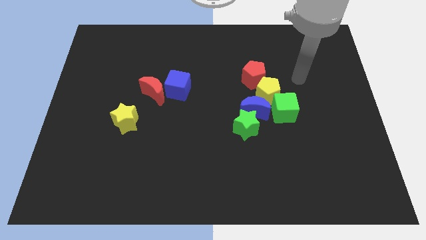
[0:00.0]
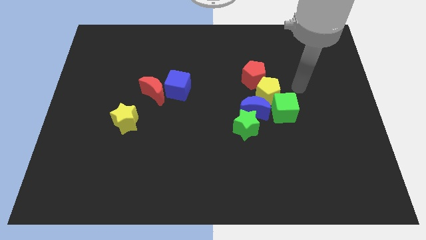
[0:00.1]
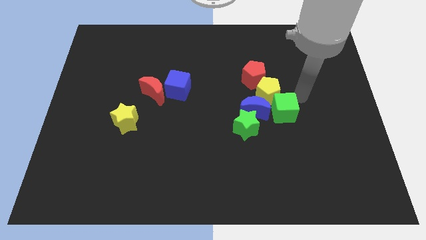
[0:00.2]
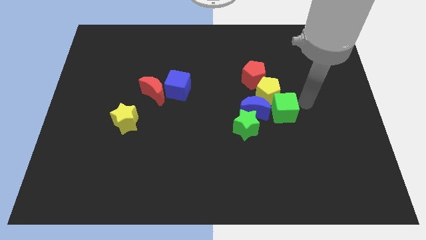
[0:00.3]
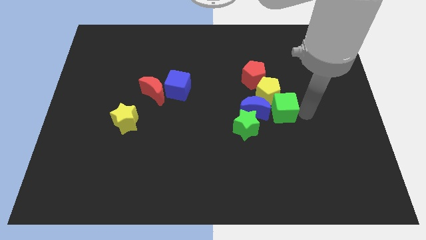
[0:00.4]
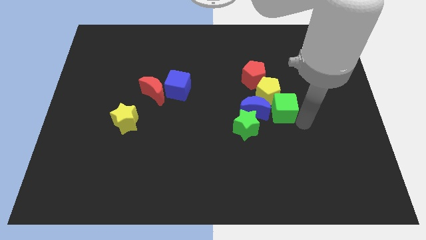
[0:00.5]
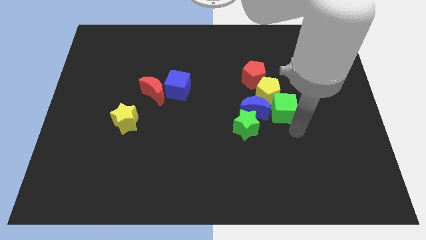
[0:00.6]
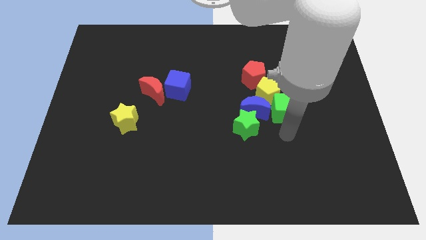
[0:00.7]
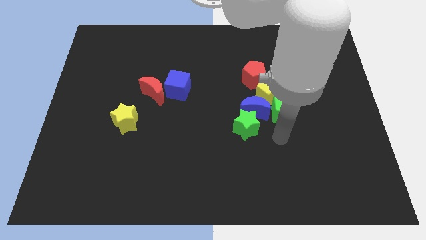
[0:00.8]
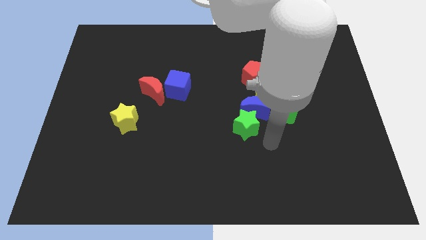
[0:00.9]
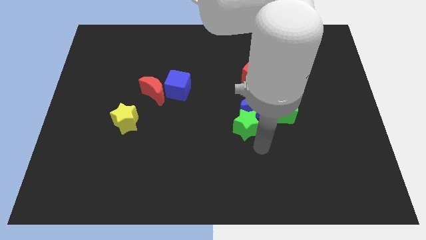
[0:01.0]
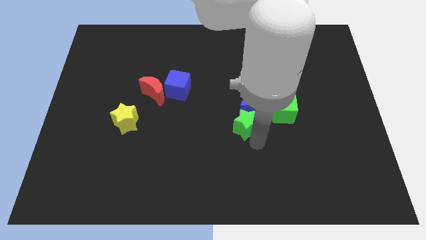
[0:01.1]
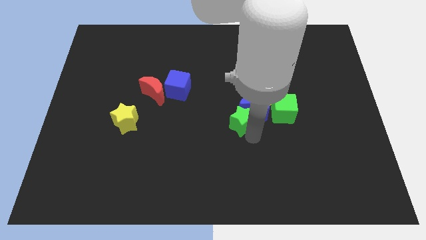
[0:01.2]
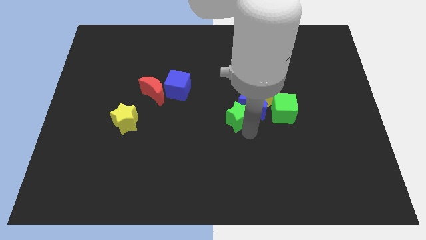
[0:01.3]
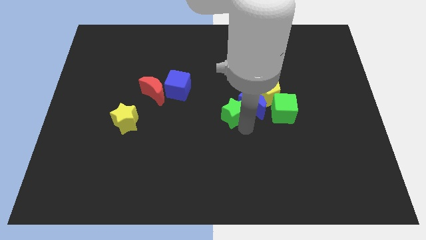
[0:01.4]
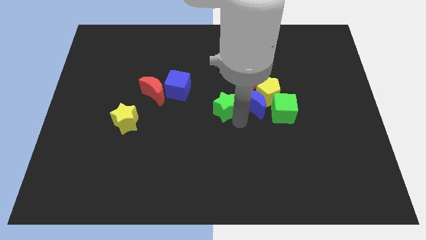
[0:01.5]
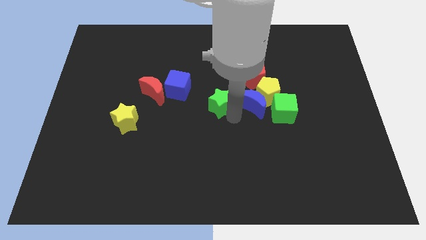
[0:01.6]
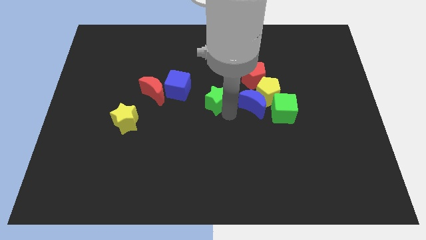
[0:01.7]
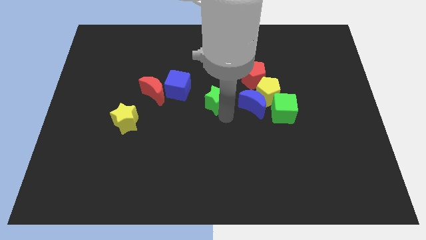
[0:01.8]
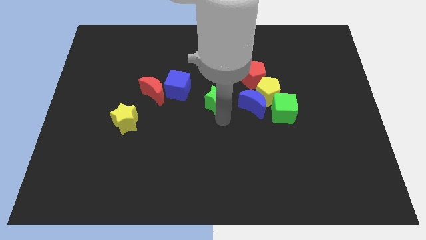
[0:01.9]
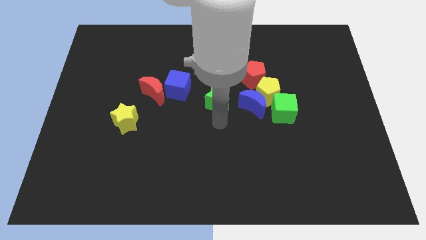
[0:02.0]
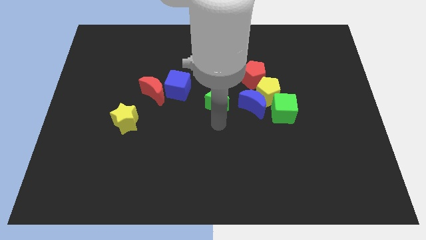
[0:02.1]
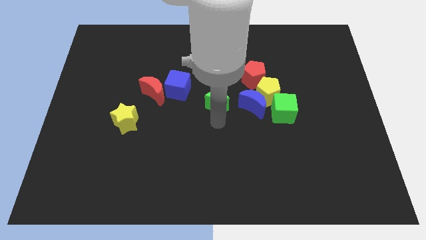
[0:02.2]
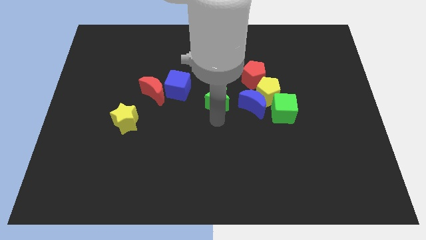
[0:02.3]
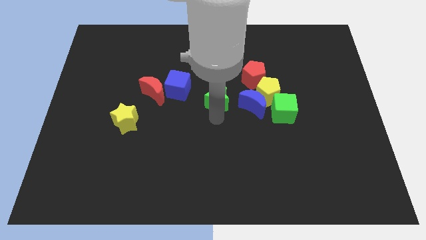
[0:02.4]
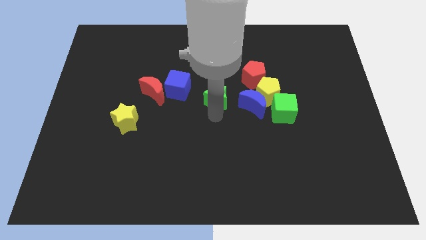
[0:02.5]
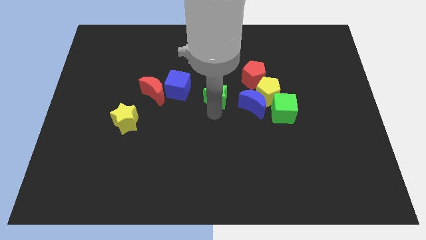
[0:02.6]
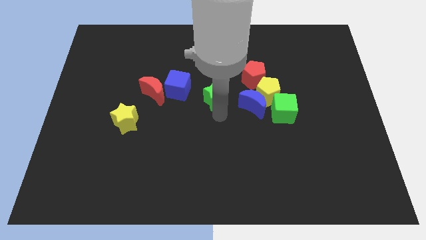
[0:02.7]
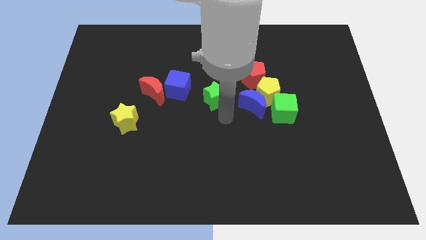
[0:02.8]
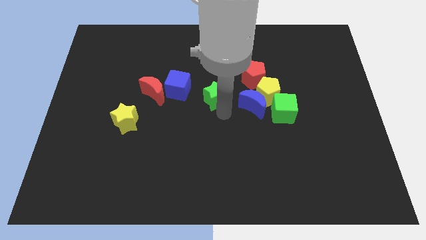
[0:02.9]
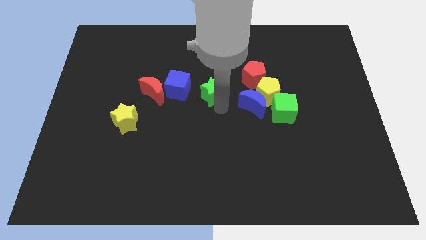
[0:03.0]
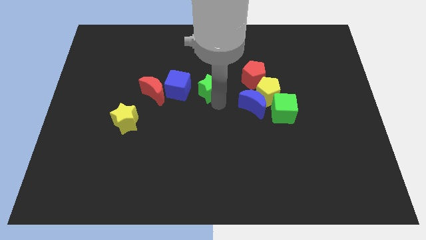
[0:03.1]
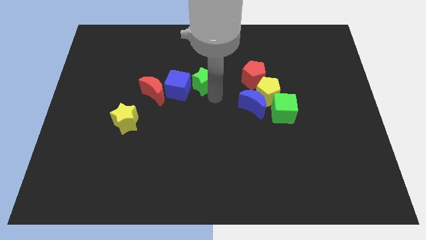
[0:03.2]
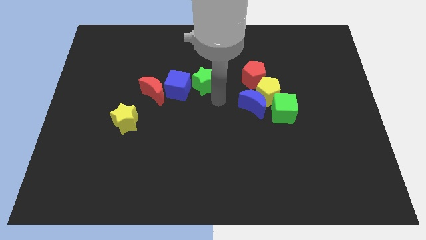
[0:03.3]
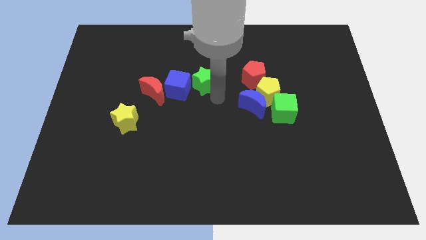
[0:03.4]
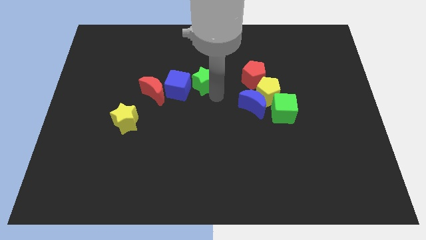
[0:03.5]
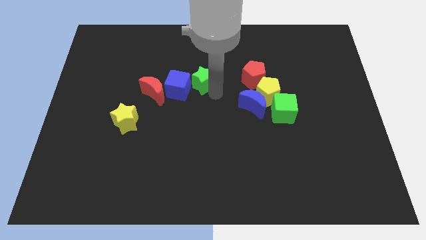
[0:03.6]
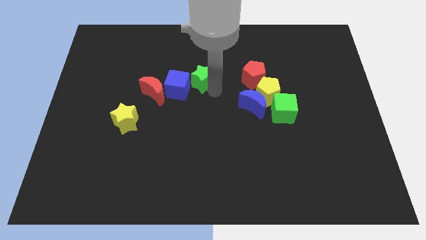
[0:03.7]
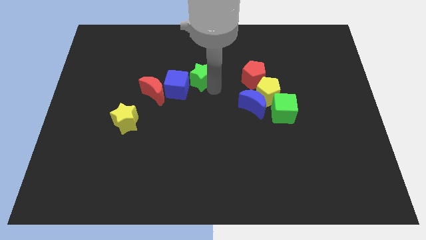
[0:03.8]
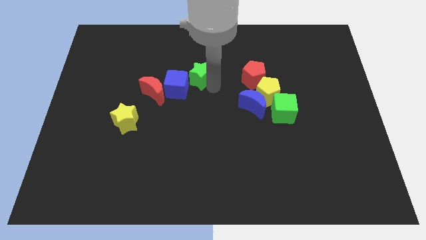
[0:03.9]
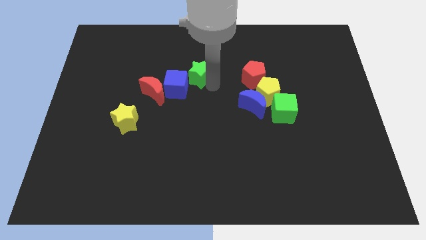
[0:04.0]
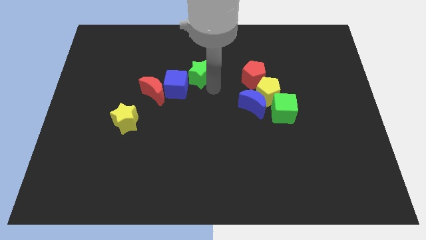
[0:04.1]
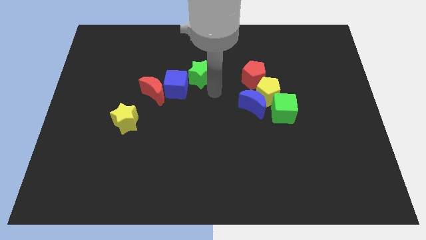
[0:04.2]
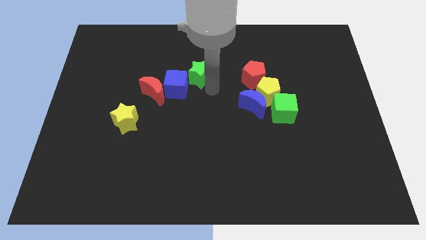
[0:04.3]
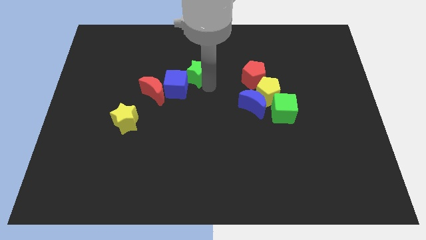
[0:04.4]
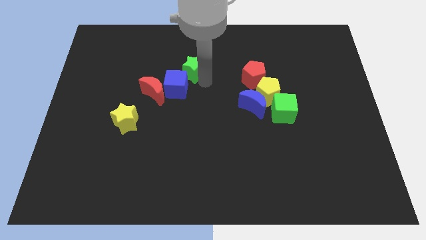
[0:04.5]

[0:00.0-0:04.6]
push the green star up and then left

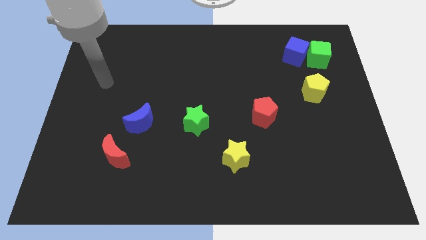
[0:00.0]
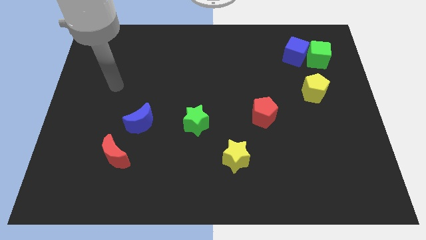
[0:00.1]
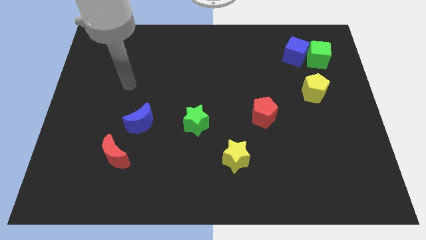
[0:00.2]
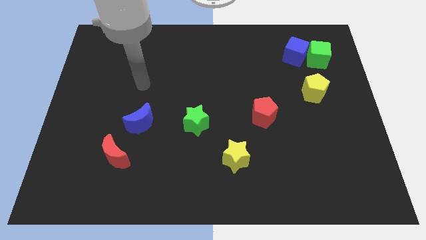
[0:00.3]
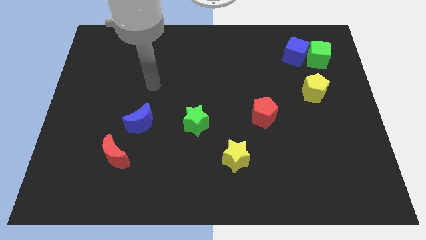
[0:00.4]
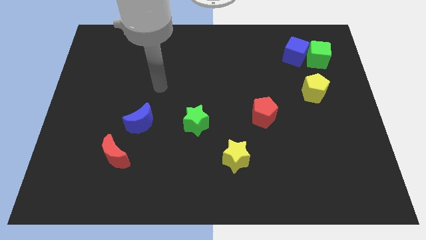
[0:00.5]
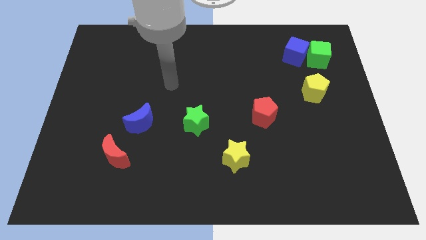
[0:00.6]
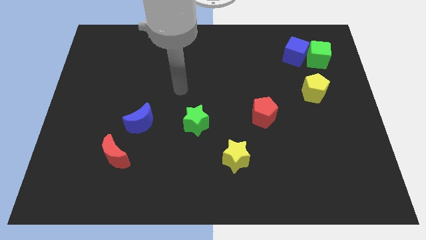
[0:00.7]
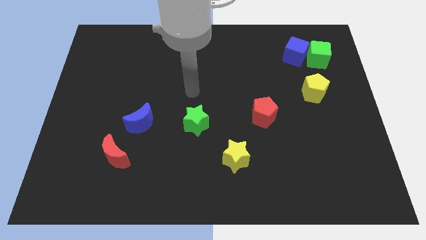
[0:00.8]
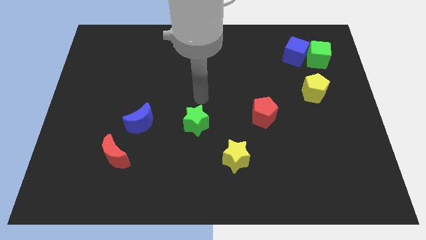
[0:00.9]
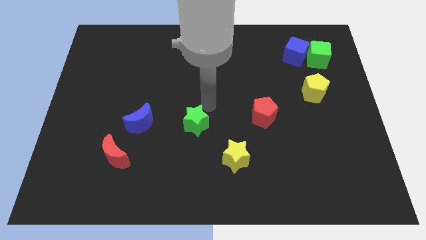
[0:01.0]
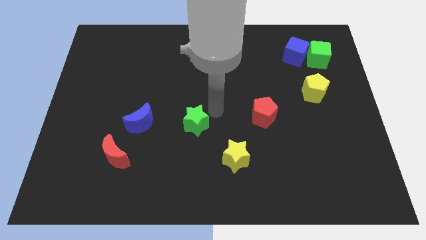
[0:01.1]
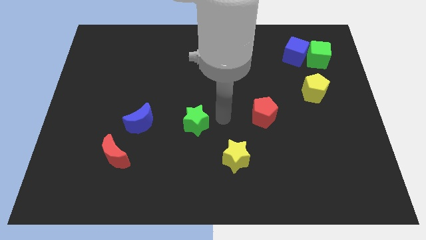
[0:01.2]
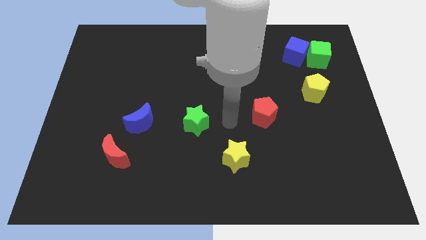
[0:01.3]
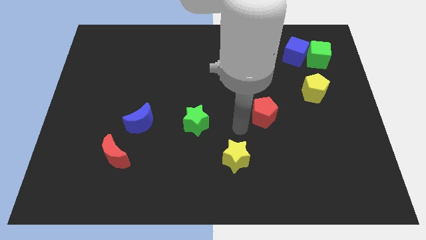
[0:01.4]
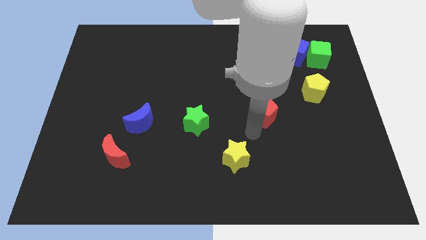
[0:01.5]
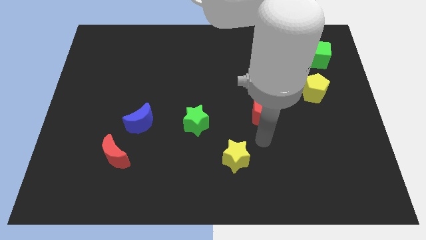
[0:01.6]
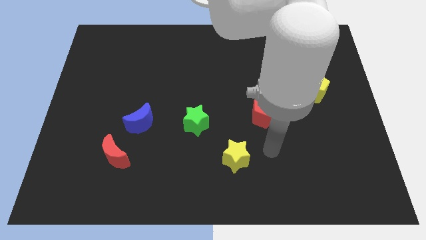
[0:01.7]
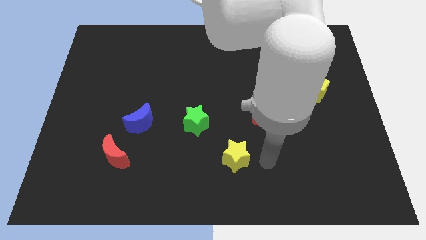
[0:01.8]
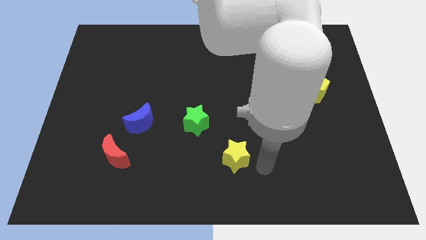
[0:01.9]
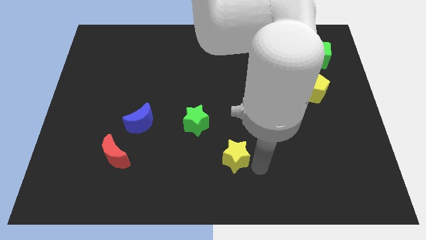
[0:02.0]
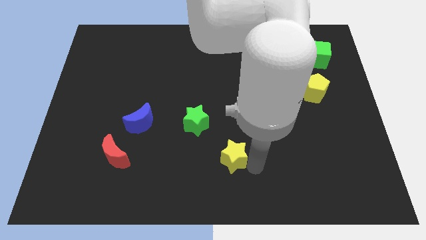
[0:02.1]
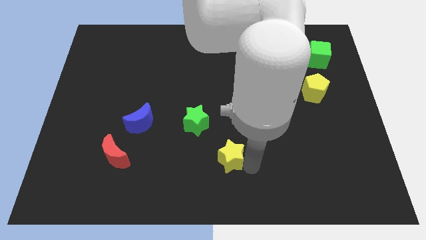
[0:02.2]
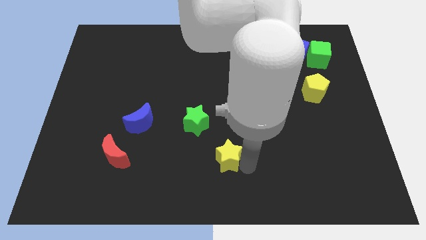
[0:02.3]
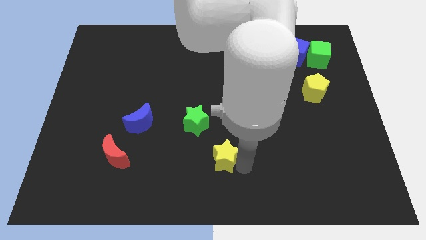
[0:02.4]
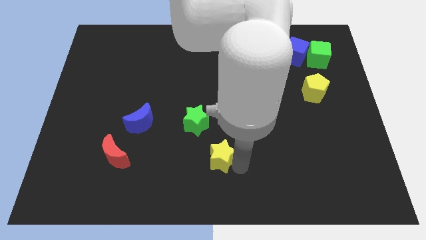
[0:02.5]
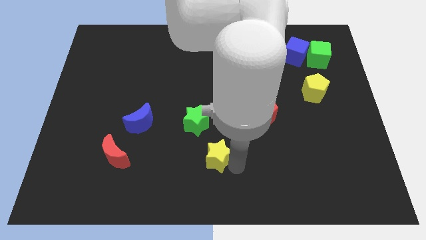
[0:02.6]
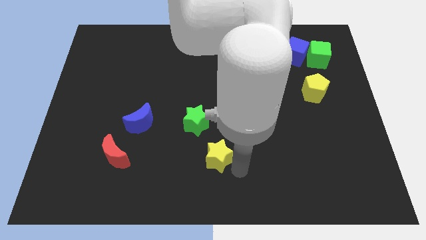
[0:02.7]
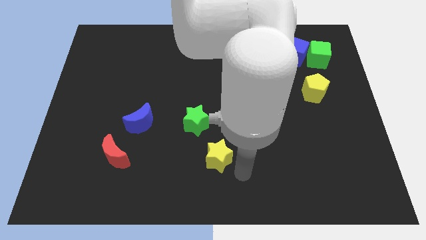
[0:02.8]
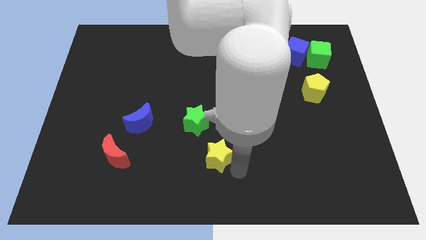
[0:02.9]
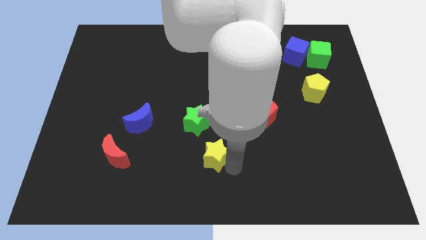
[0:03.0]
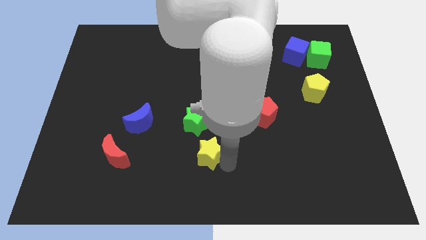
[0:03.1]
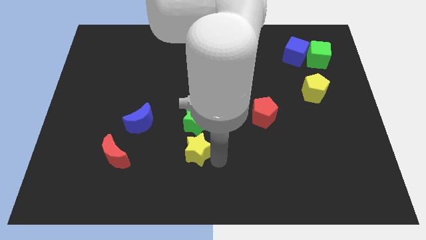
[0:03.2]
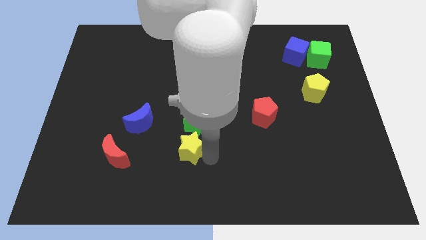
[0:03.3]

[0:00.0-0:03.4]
move the yellow star a little up and to the left
